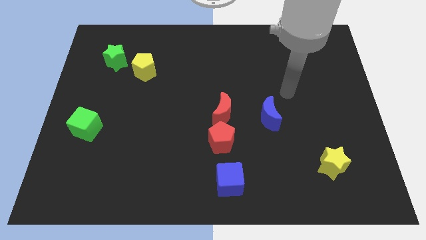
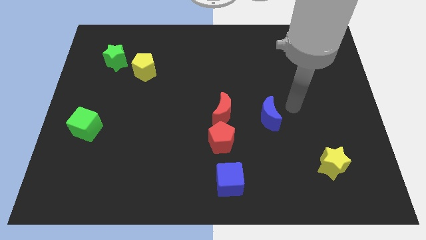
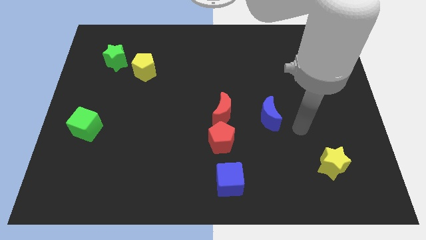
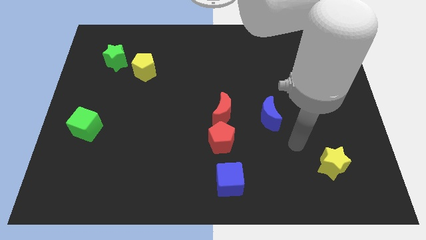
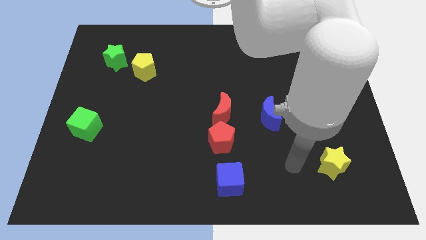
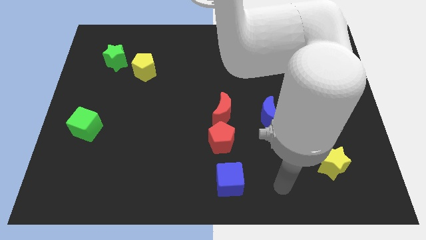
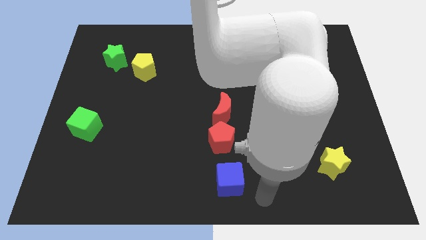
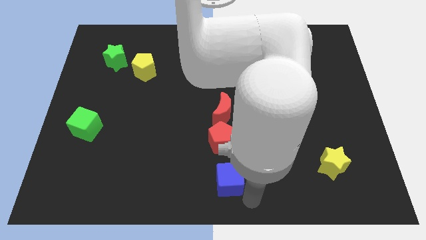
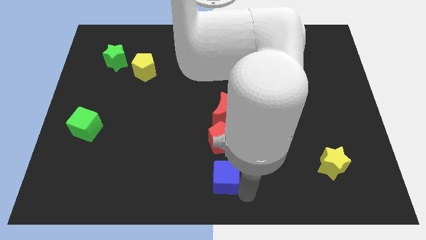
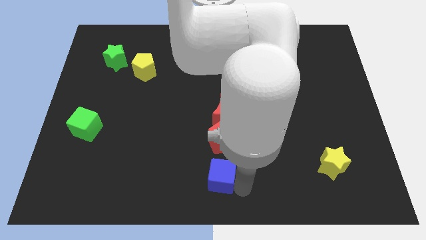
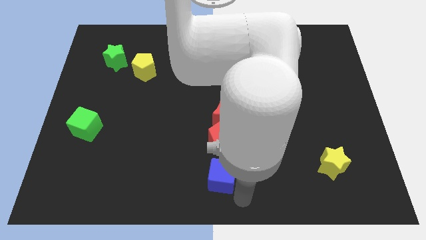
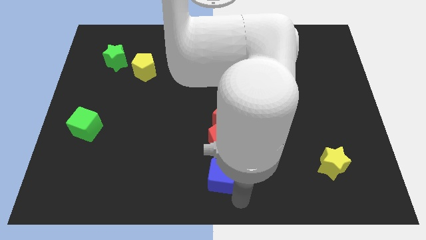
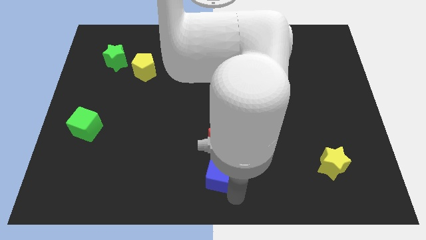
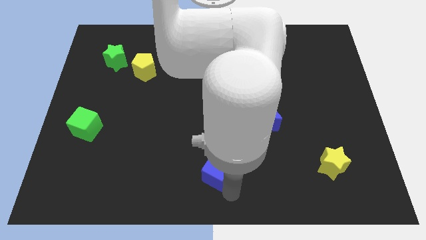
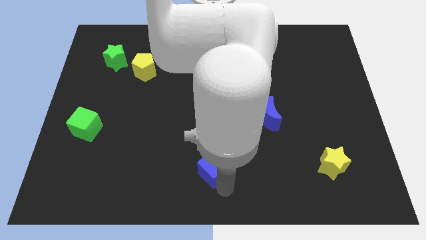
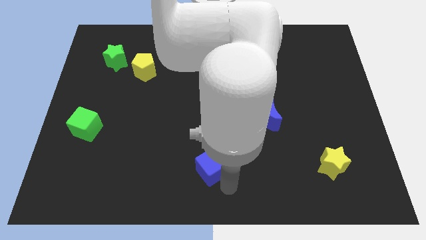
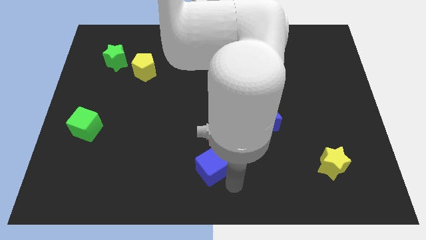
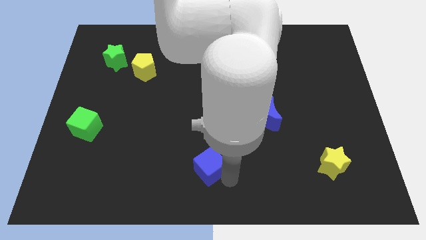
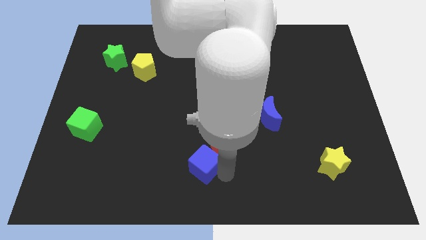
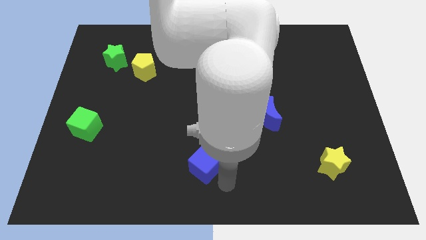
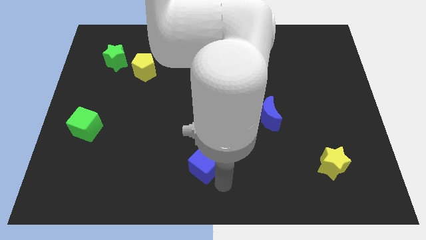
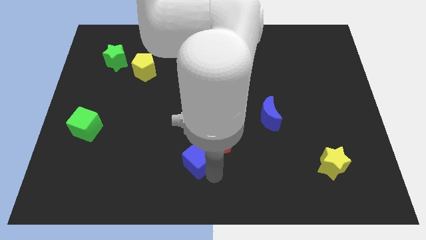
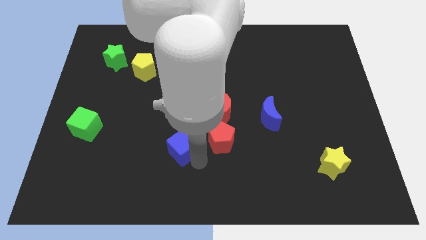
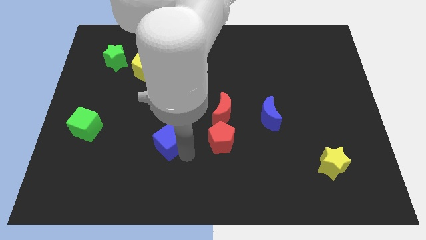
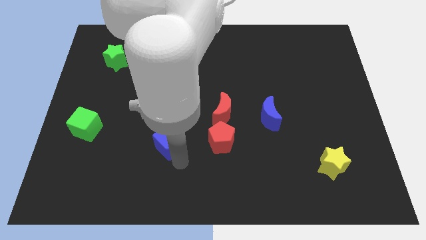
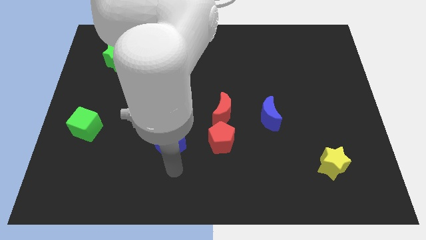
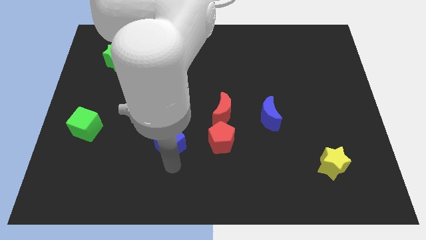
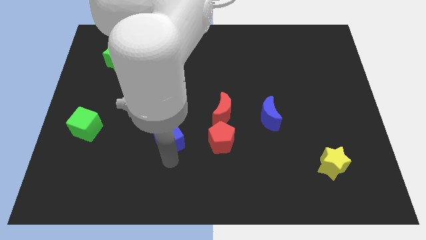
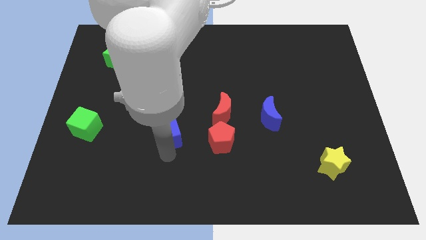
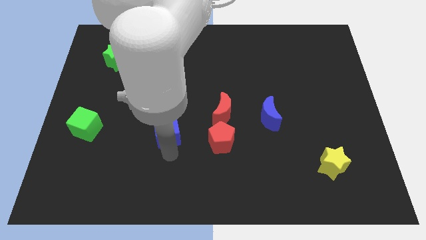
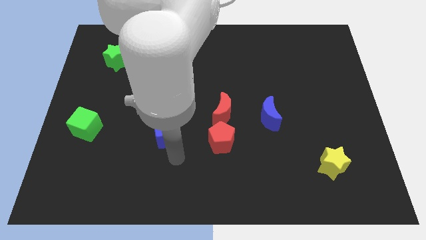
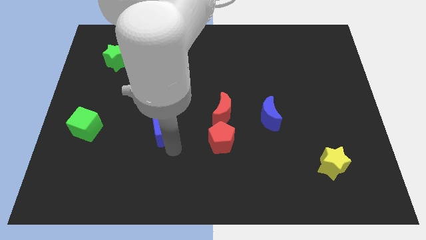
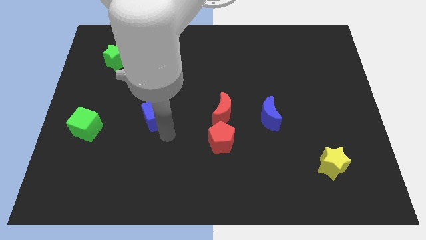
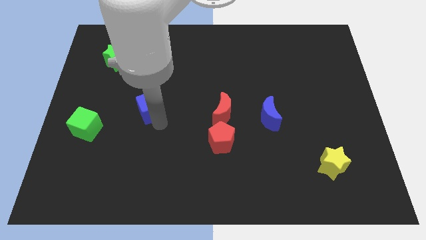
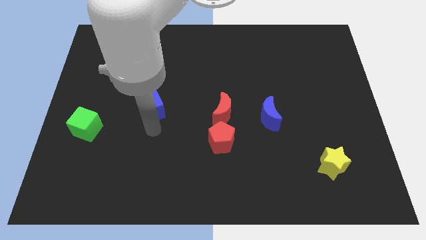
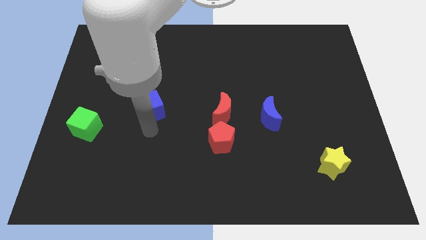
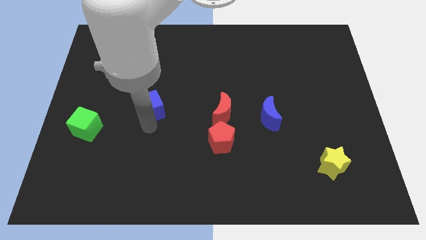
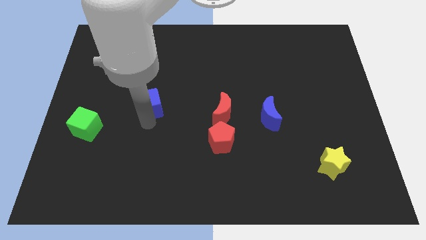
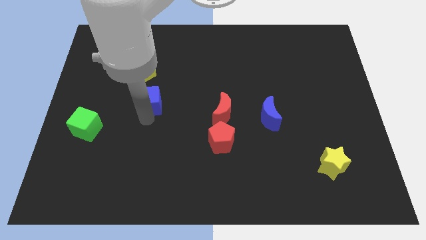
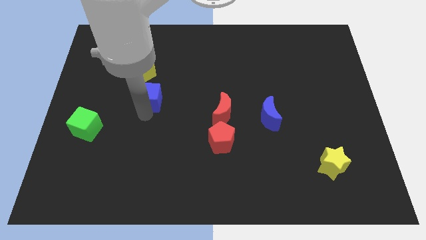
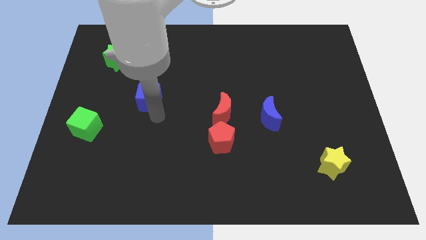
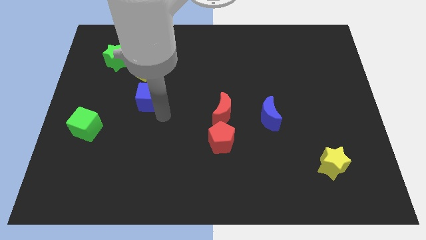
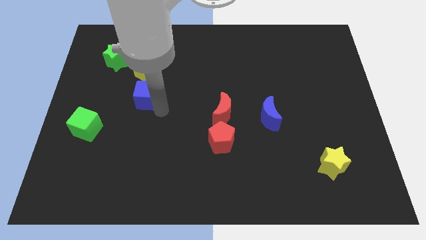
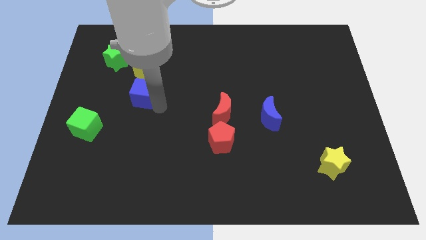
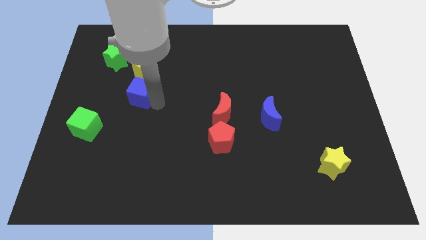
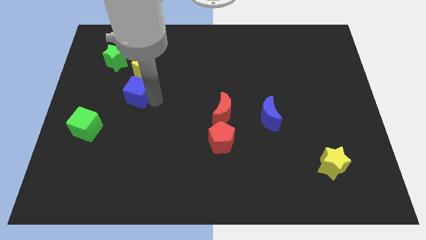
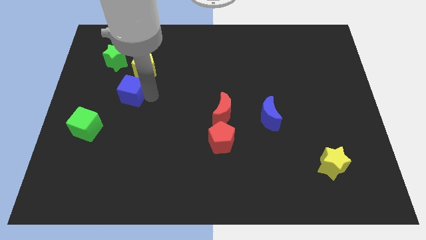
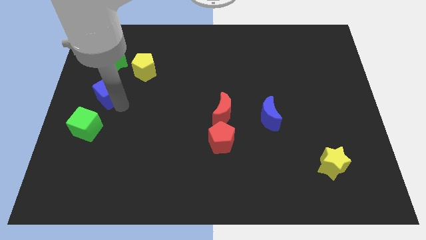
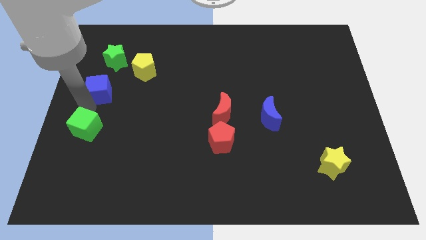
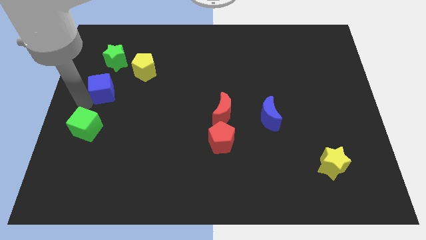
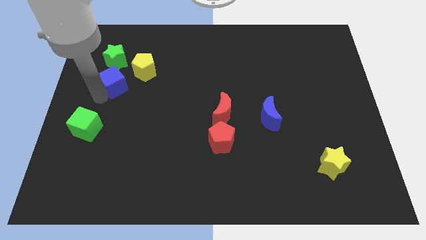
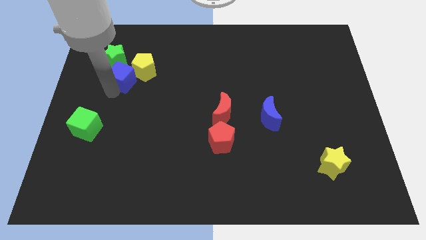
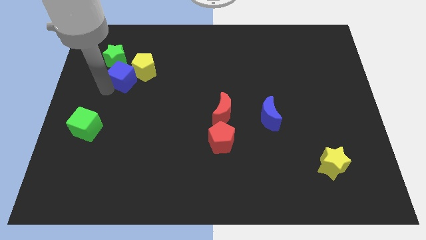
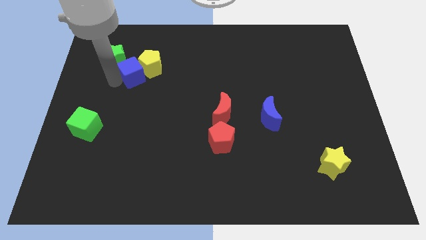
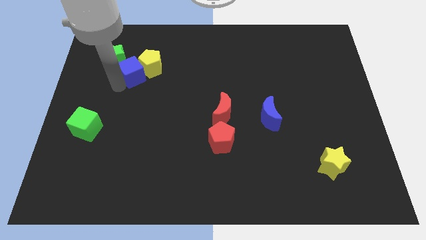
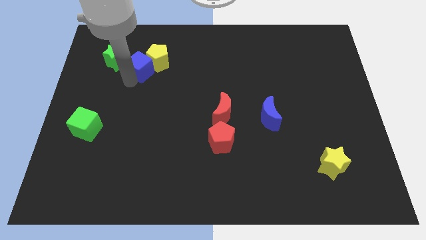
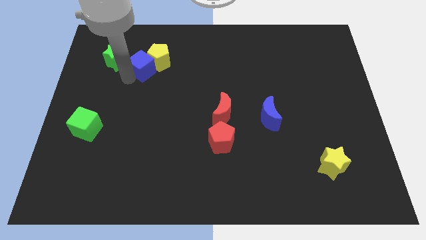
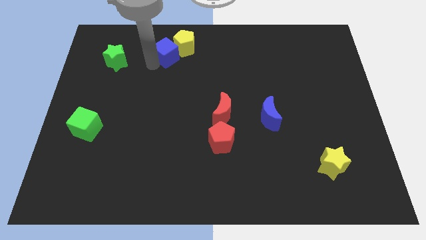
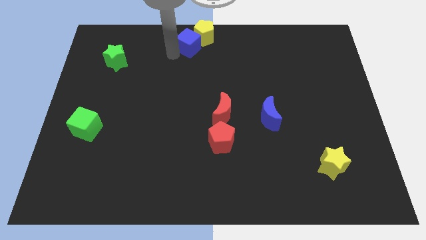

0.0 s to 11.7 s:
put the blue cube to the top

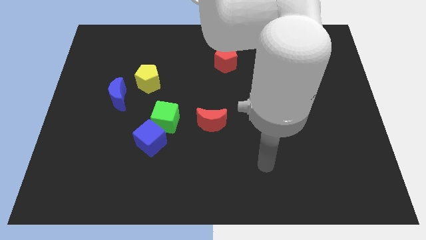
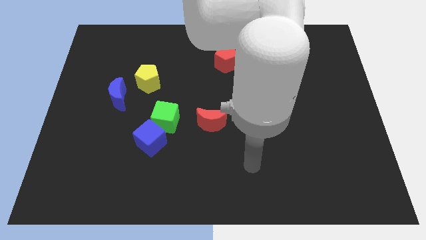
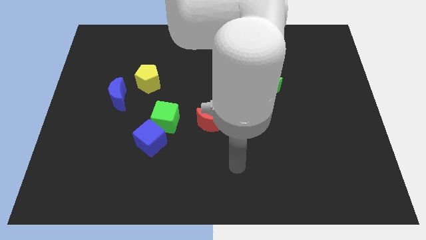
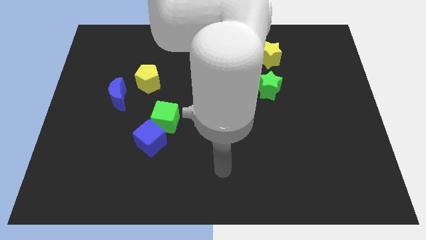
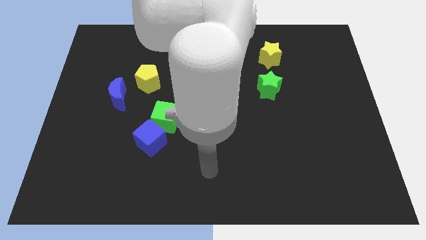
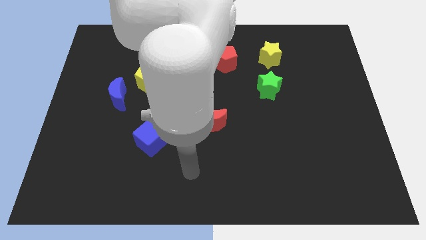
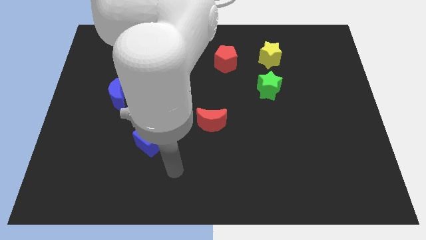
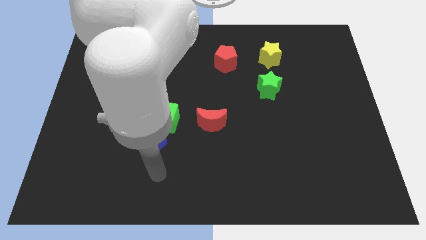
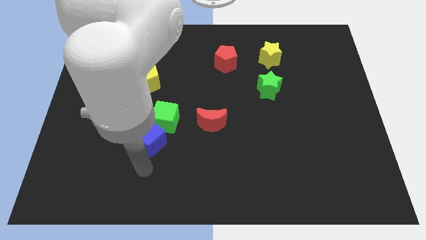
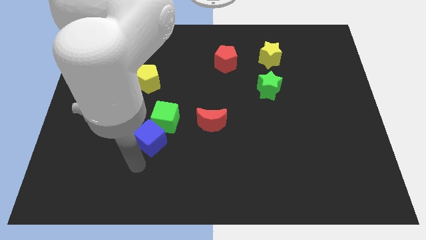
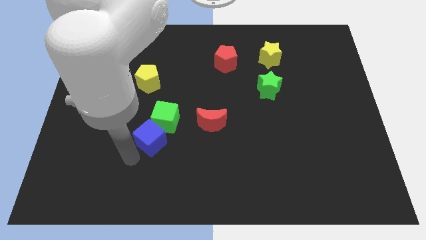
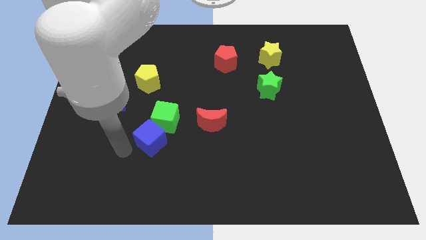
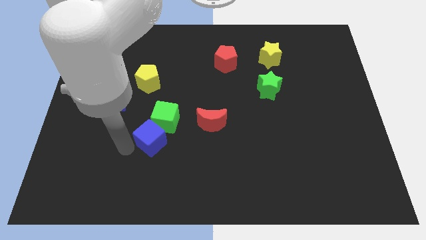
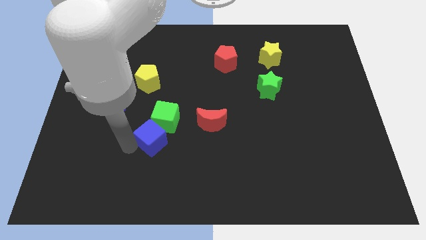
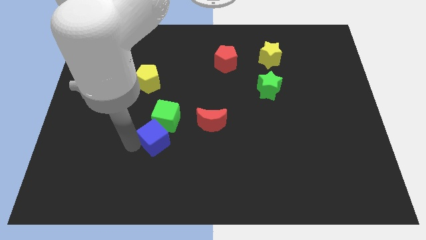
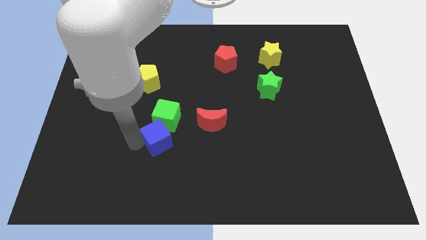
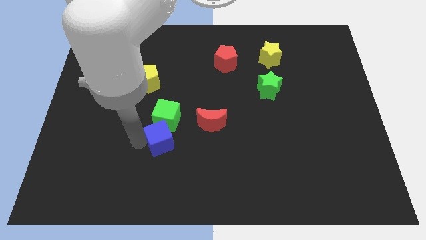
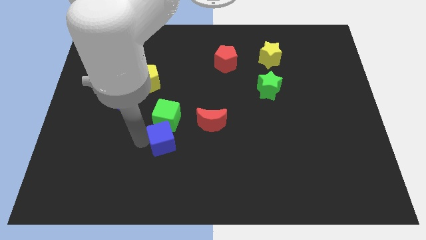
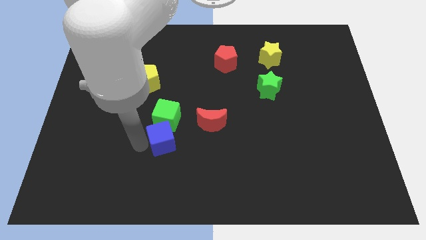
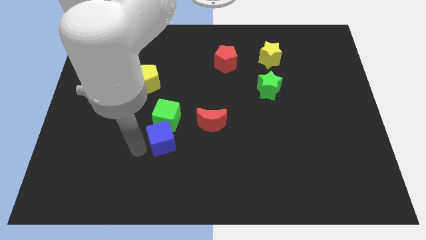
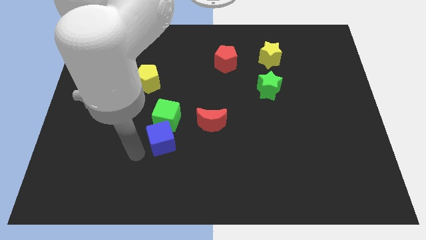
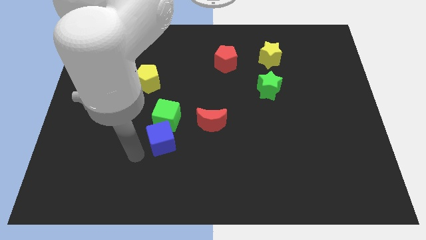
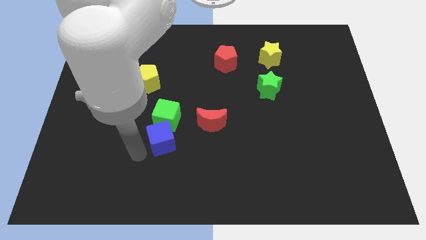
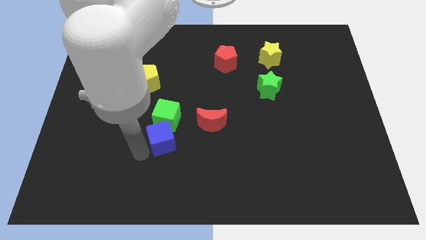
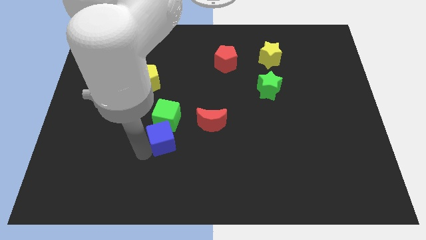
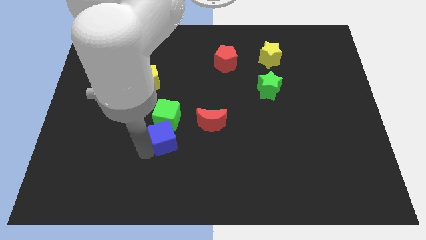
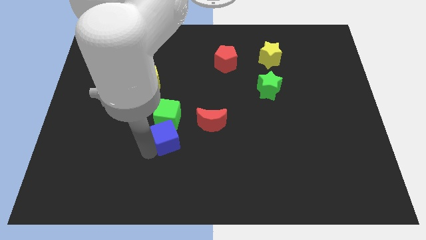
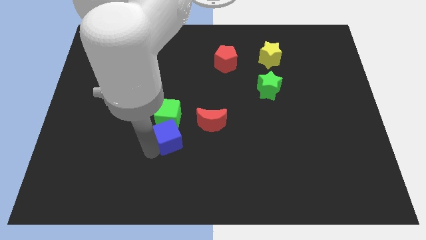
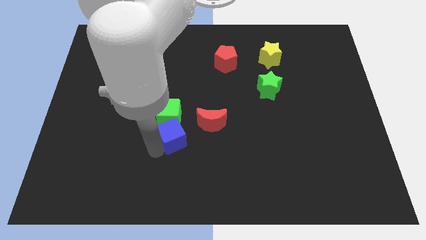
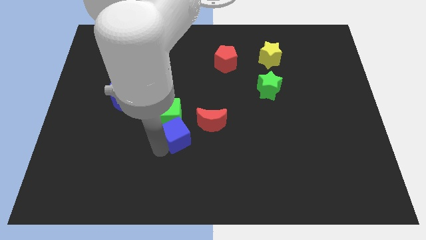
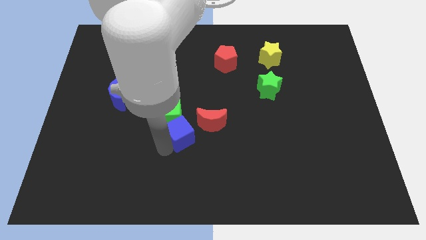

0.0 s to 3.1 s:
push the blue cube to the center
